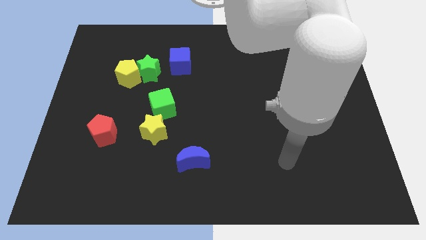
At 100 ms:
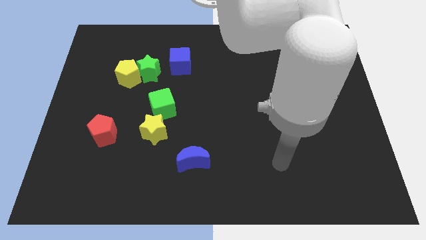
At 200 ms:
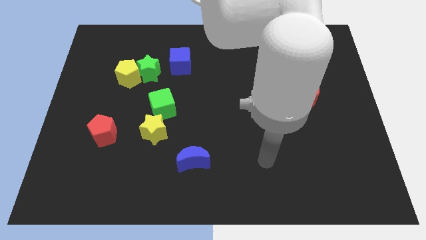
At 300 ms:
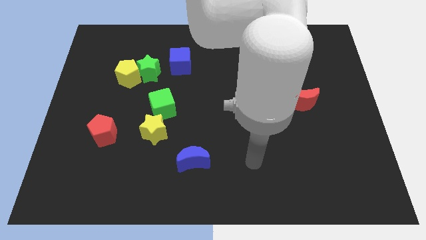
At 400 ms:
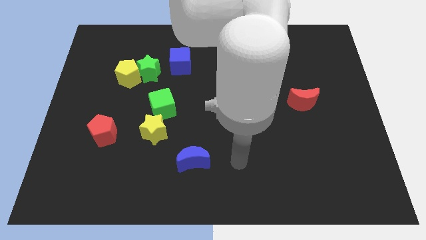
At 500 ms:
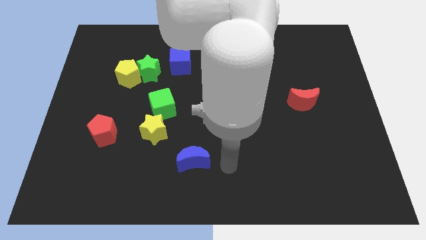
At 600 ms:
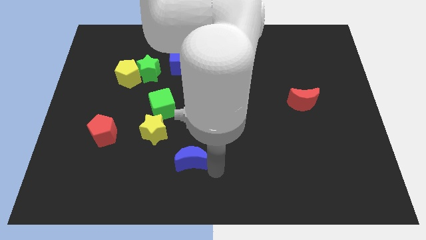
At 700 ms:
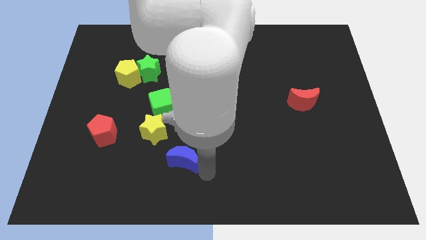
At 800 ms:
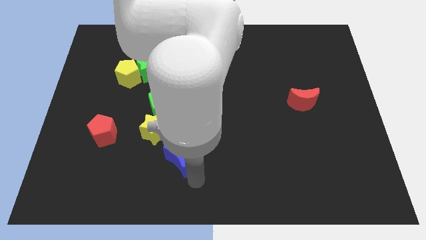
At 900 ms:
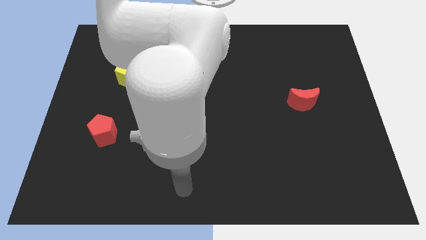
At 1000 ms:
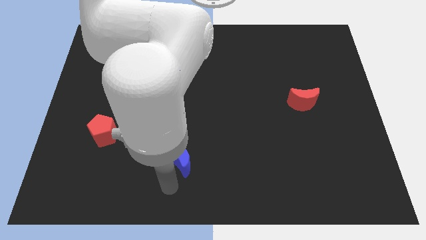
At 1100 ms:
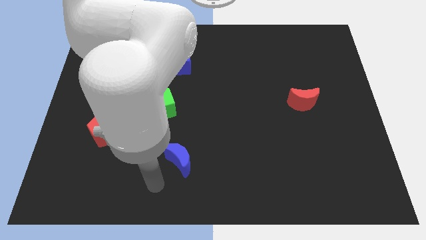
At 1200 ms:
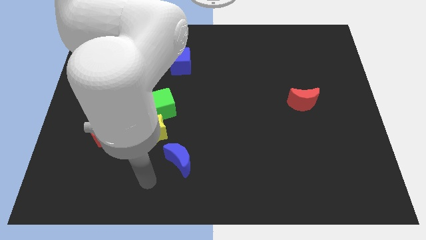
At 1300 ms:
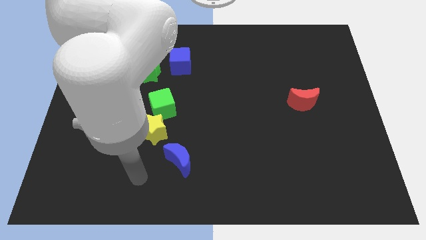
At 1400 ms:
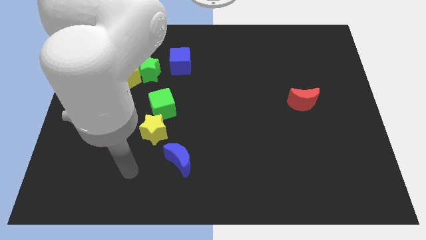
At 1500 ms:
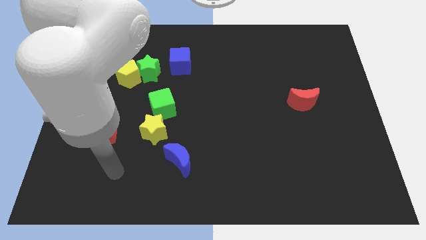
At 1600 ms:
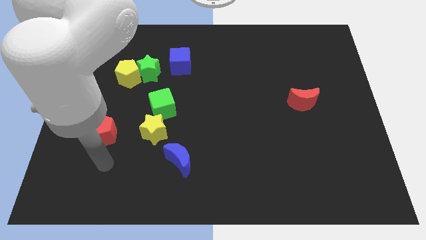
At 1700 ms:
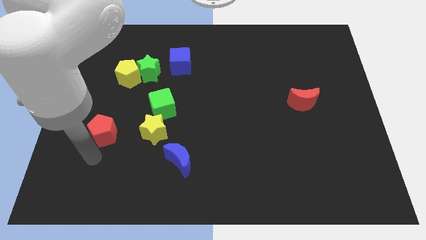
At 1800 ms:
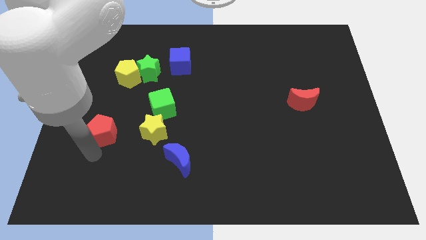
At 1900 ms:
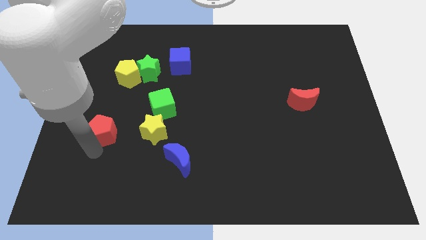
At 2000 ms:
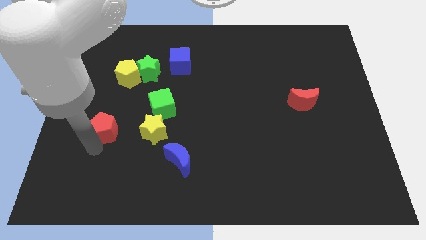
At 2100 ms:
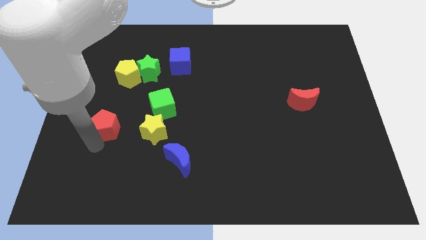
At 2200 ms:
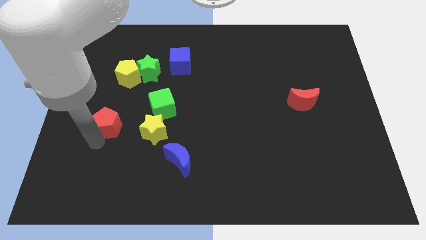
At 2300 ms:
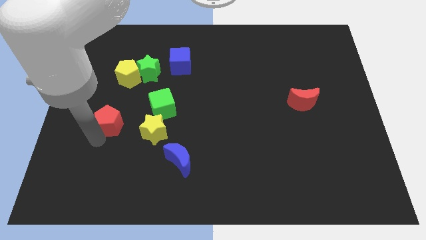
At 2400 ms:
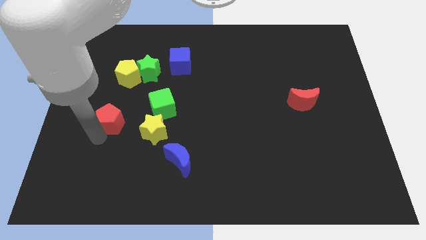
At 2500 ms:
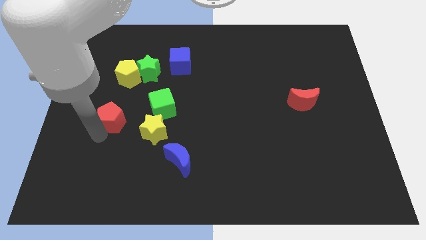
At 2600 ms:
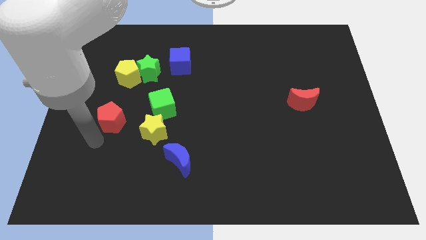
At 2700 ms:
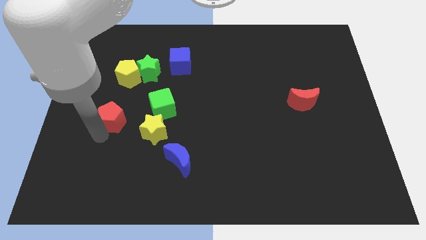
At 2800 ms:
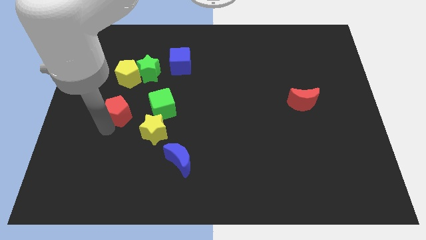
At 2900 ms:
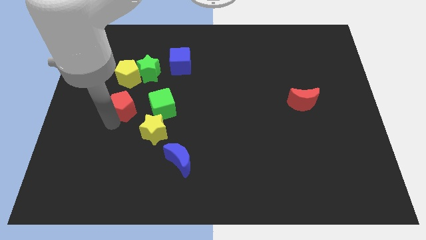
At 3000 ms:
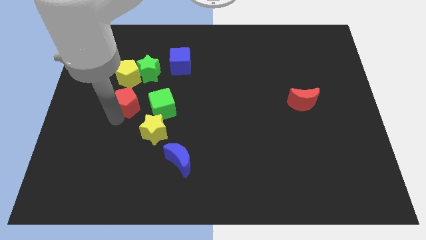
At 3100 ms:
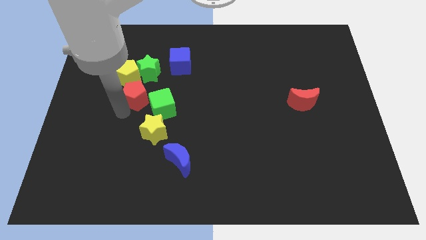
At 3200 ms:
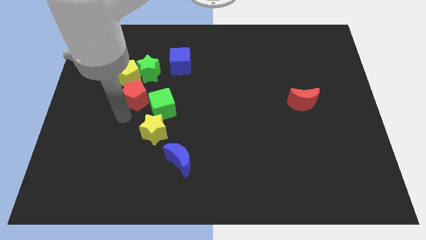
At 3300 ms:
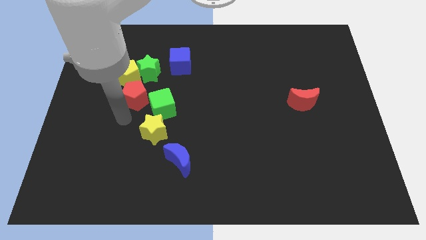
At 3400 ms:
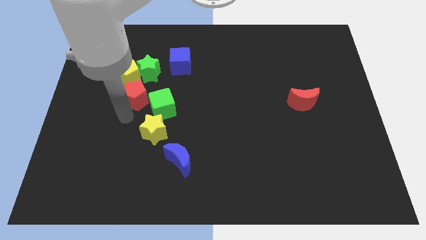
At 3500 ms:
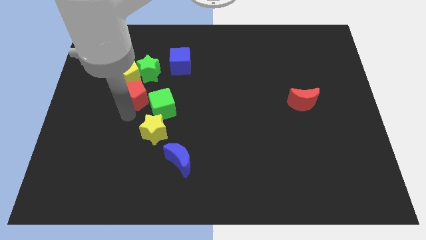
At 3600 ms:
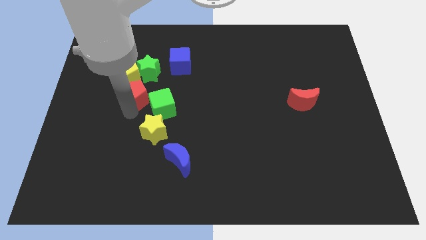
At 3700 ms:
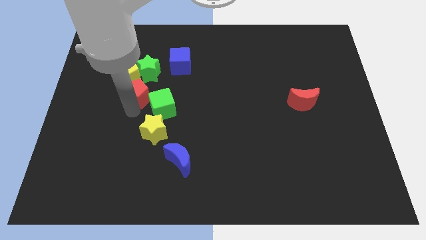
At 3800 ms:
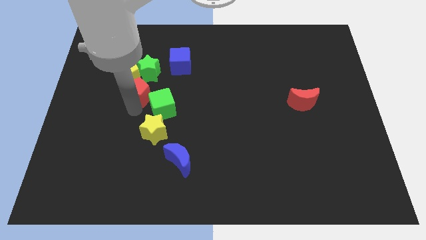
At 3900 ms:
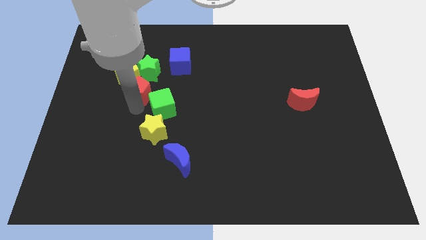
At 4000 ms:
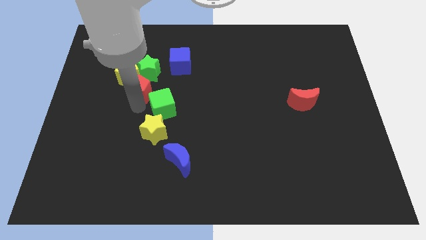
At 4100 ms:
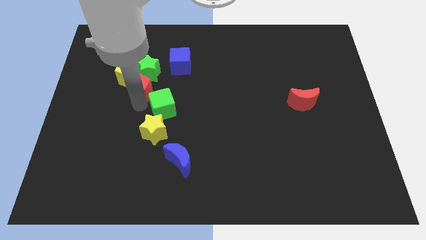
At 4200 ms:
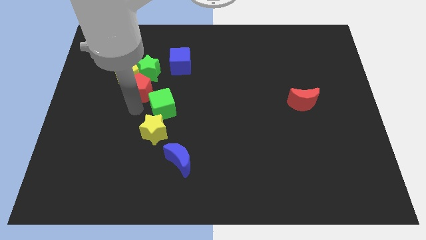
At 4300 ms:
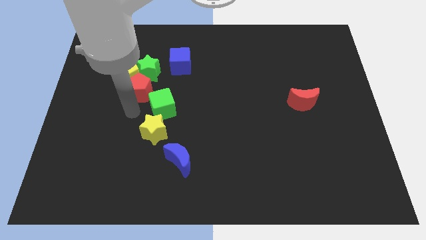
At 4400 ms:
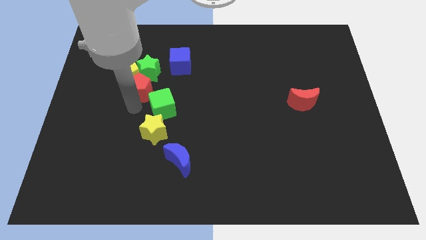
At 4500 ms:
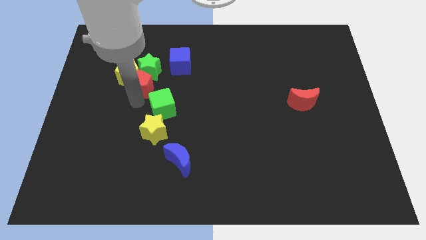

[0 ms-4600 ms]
push the red pentagon to the green star

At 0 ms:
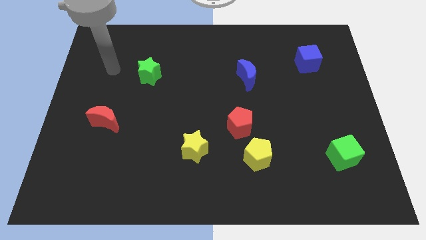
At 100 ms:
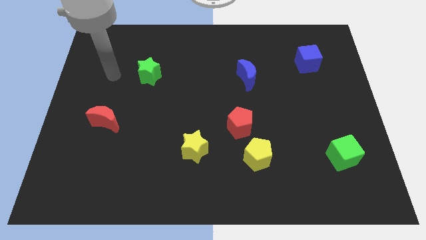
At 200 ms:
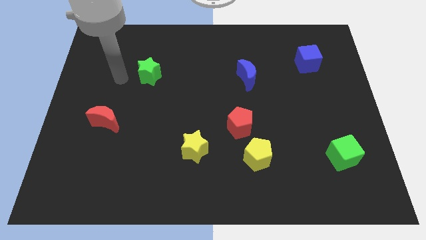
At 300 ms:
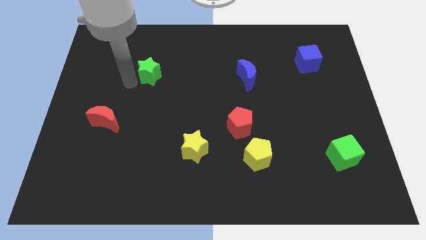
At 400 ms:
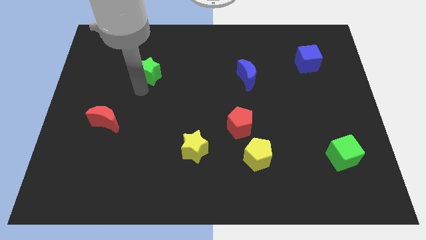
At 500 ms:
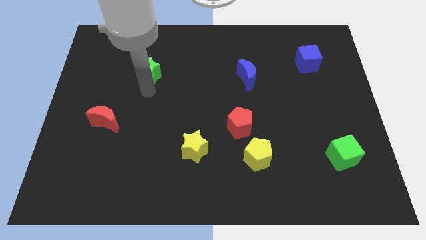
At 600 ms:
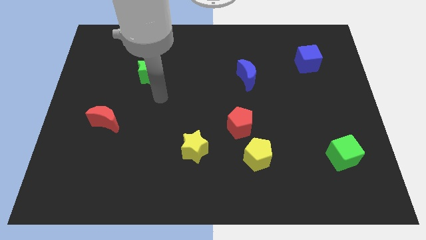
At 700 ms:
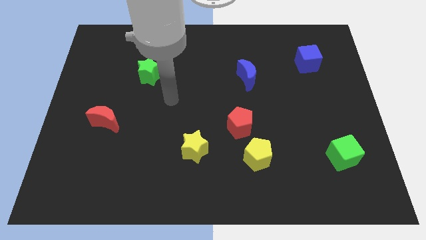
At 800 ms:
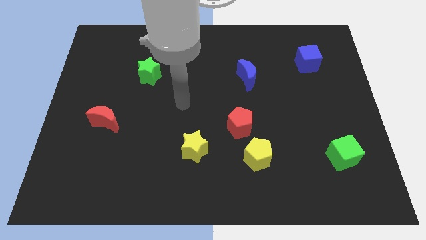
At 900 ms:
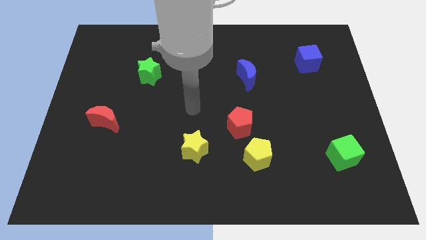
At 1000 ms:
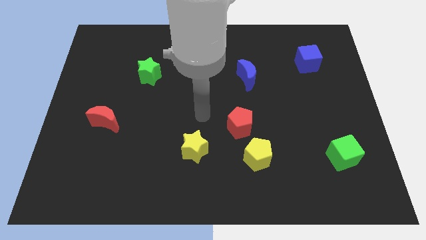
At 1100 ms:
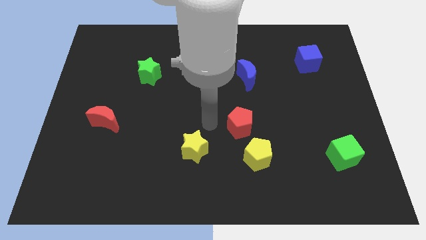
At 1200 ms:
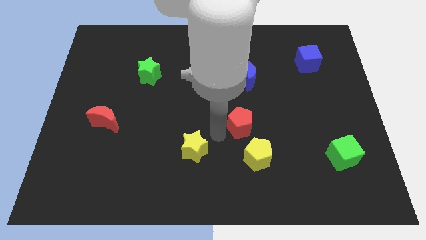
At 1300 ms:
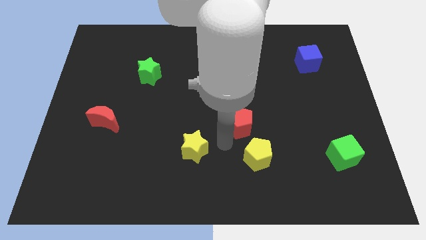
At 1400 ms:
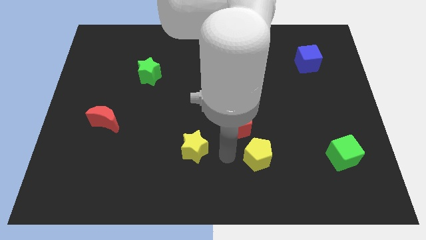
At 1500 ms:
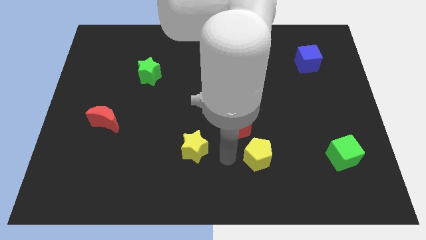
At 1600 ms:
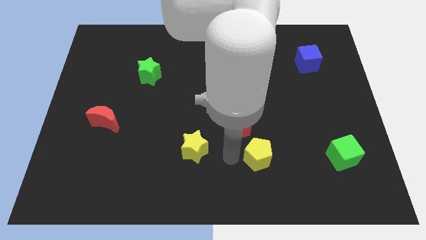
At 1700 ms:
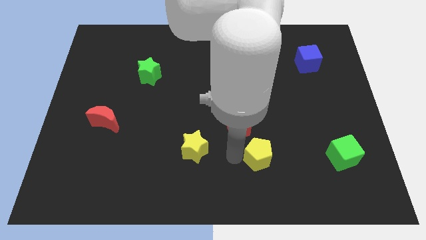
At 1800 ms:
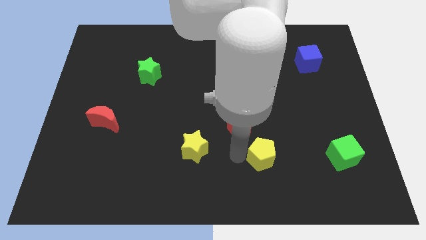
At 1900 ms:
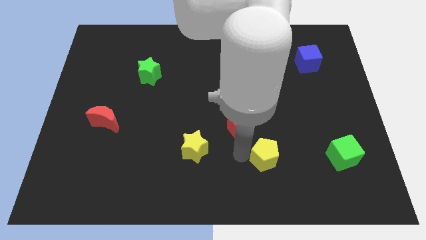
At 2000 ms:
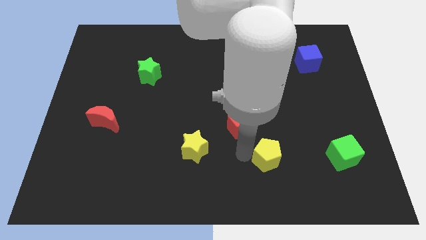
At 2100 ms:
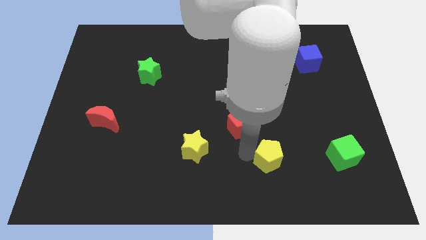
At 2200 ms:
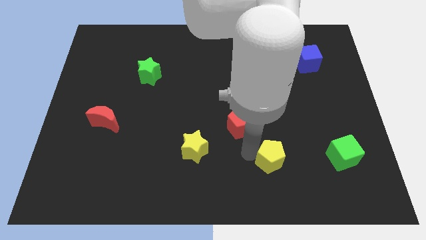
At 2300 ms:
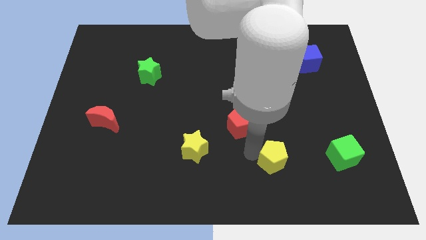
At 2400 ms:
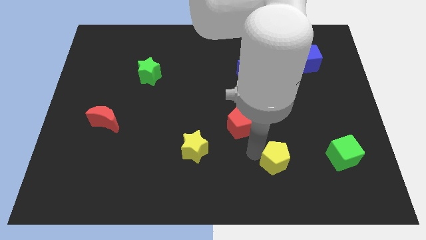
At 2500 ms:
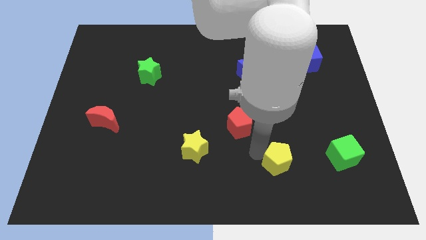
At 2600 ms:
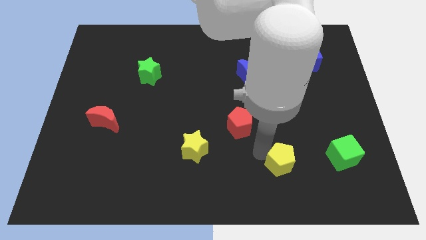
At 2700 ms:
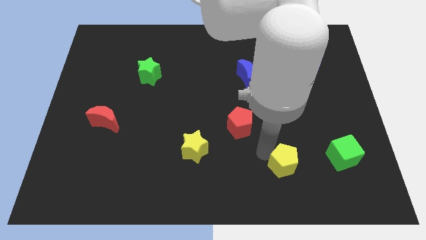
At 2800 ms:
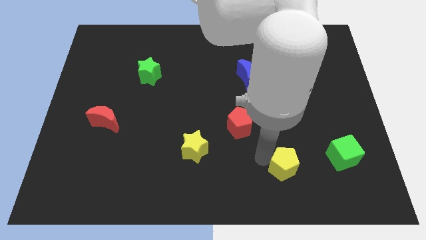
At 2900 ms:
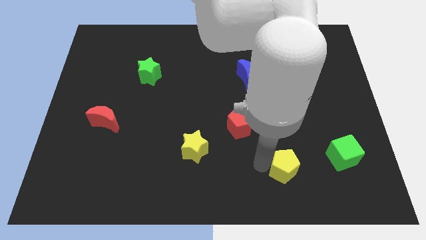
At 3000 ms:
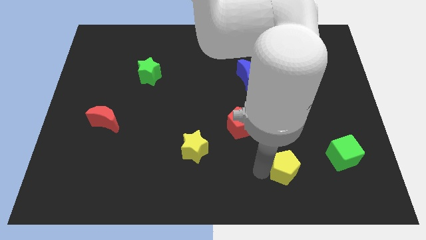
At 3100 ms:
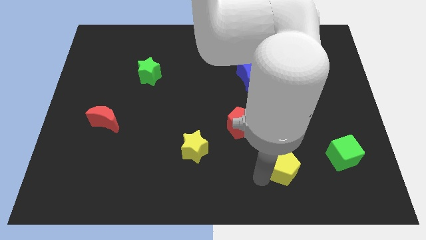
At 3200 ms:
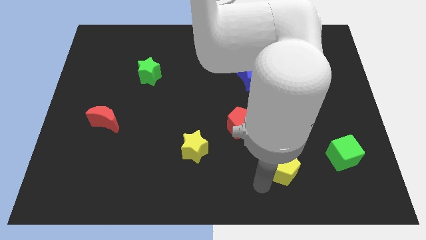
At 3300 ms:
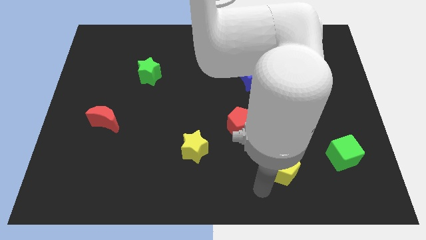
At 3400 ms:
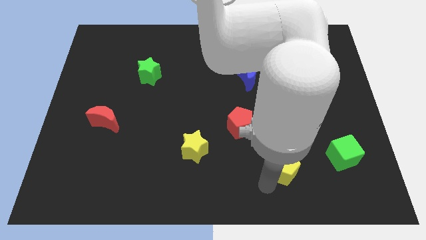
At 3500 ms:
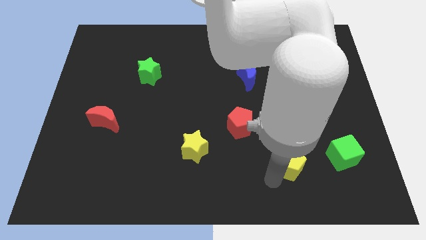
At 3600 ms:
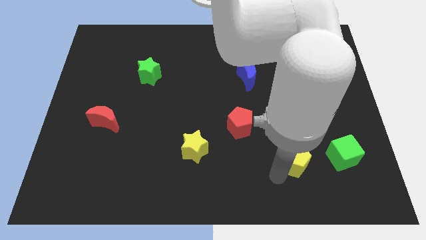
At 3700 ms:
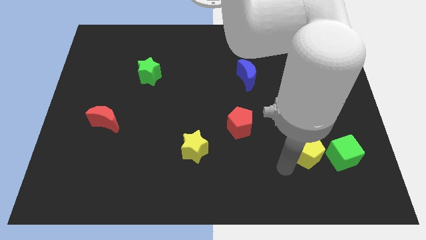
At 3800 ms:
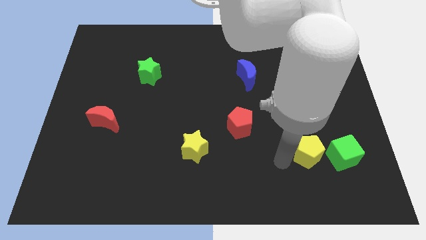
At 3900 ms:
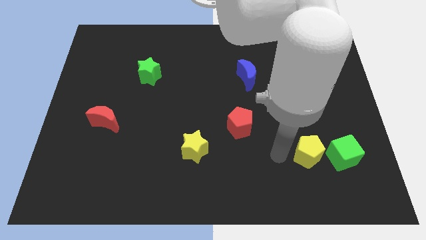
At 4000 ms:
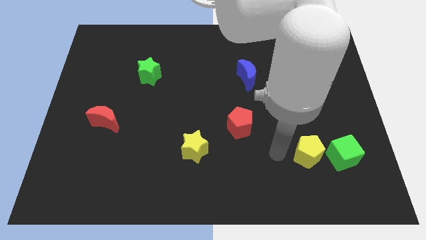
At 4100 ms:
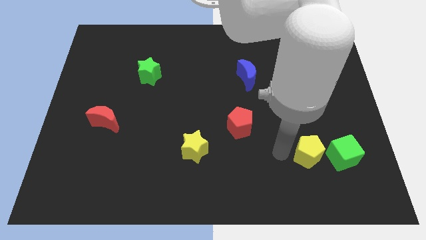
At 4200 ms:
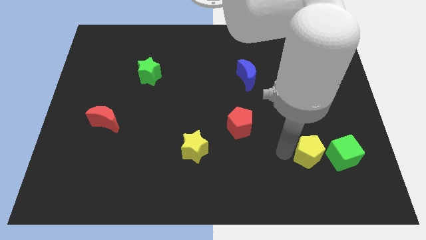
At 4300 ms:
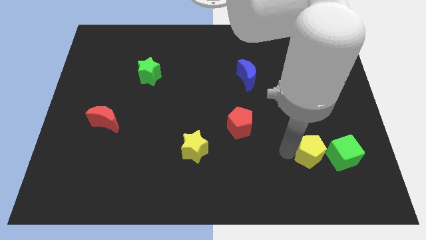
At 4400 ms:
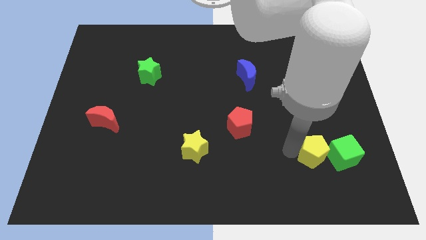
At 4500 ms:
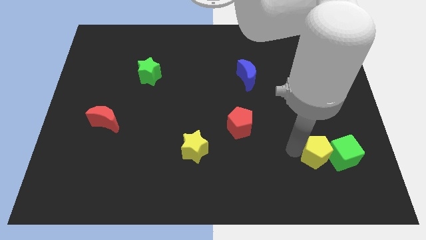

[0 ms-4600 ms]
push the yellow pentagon close to the green cube
